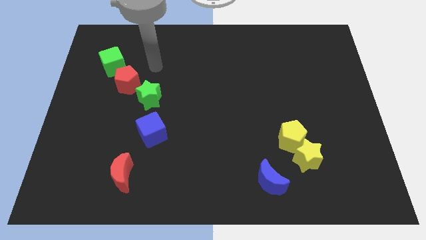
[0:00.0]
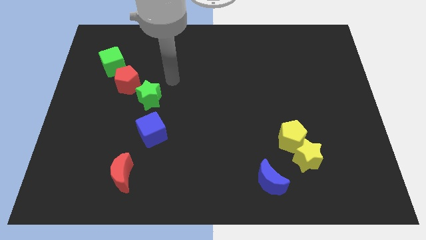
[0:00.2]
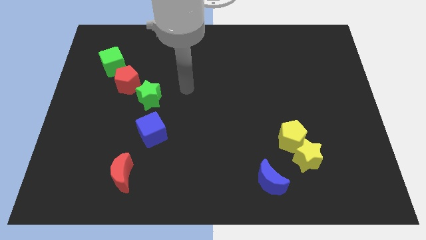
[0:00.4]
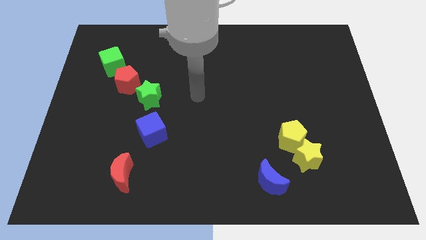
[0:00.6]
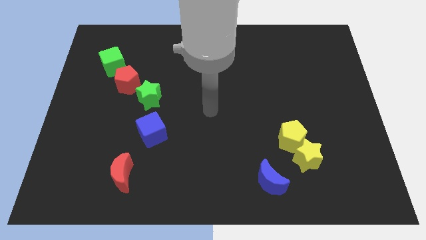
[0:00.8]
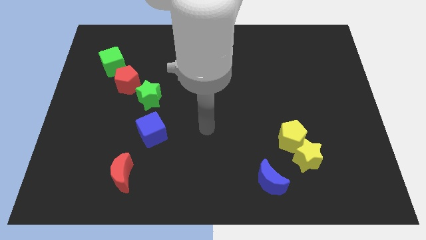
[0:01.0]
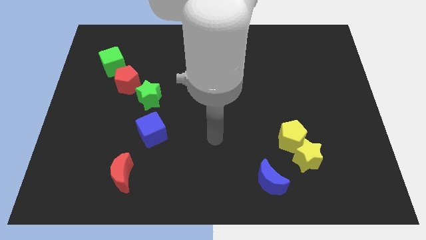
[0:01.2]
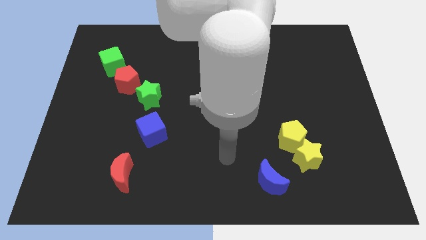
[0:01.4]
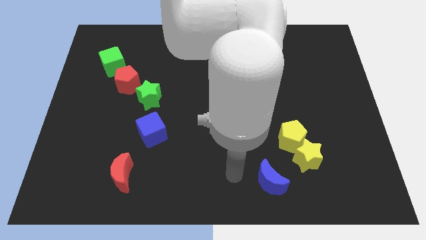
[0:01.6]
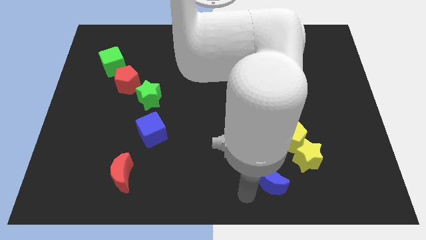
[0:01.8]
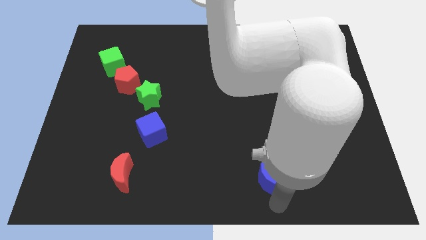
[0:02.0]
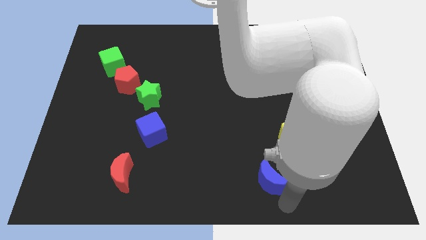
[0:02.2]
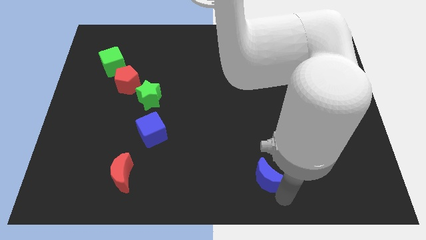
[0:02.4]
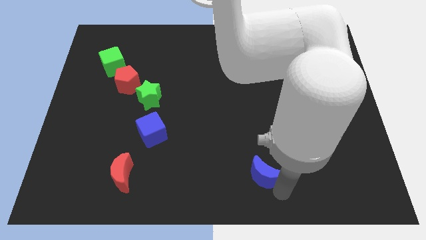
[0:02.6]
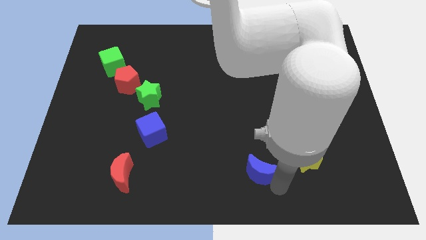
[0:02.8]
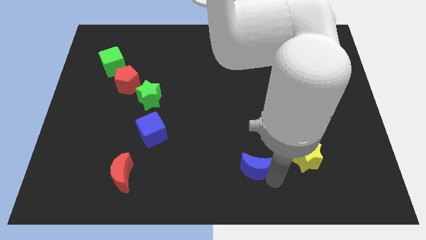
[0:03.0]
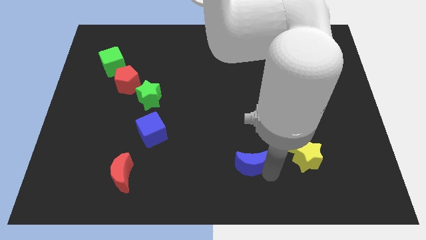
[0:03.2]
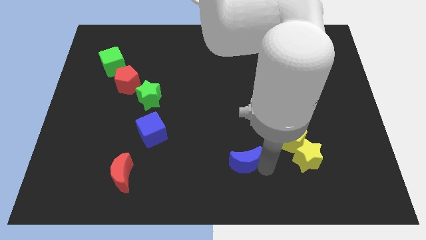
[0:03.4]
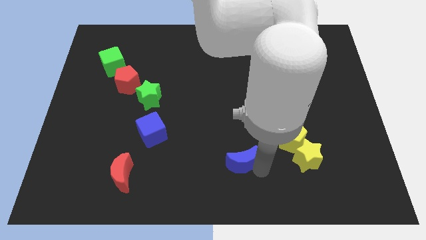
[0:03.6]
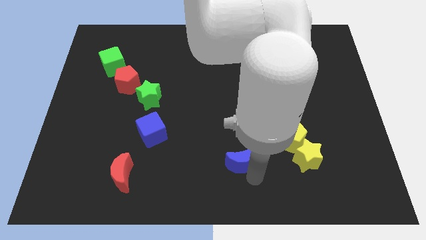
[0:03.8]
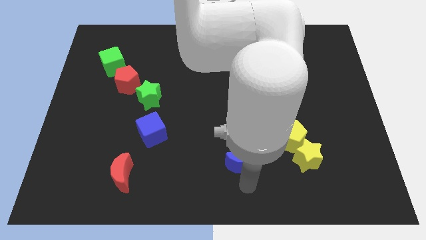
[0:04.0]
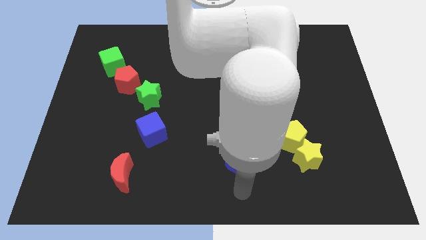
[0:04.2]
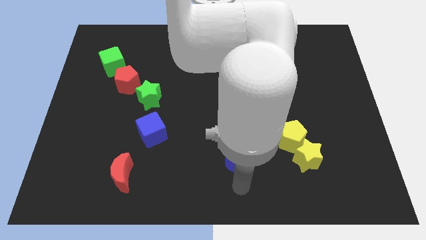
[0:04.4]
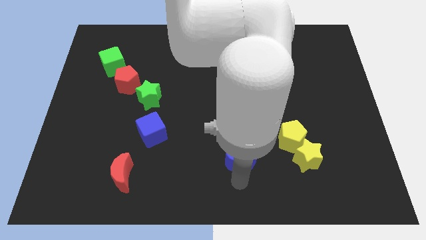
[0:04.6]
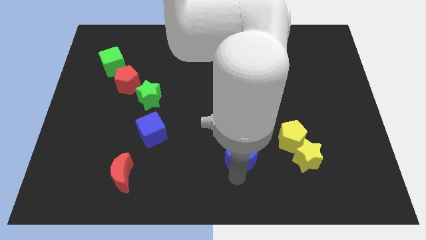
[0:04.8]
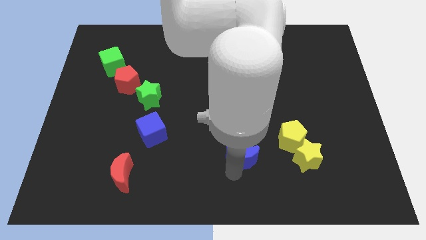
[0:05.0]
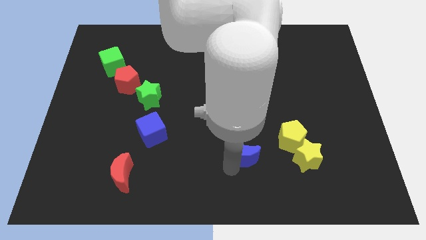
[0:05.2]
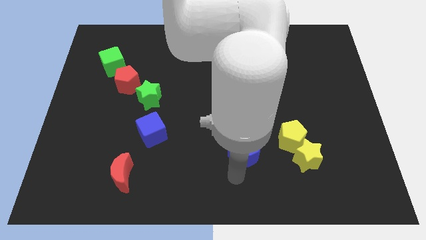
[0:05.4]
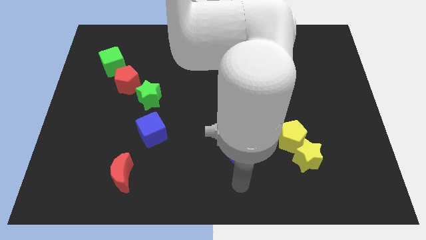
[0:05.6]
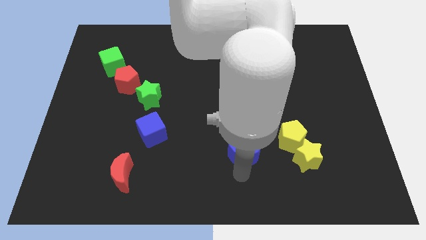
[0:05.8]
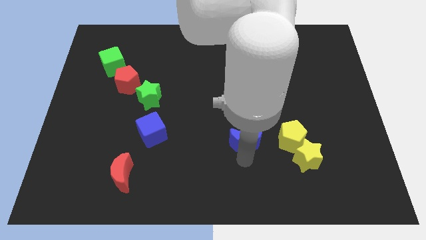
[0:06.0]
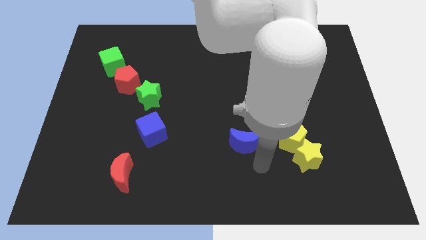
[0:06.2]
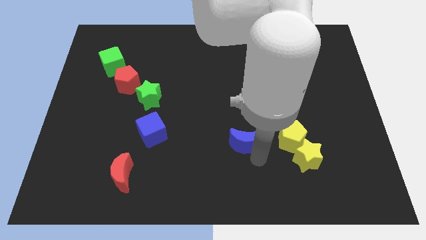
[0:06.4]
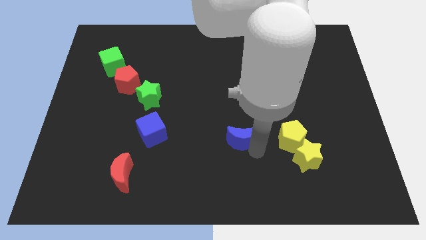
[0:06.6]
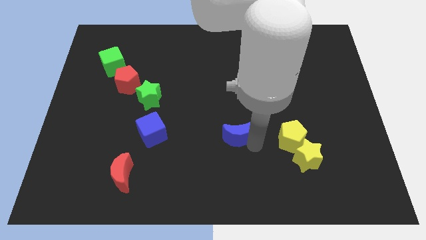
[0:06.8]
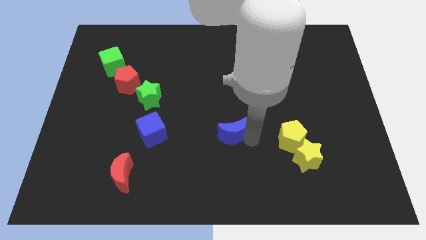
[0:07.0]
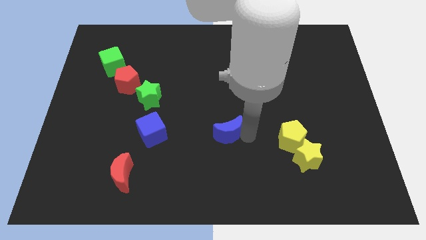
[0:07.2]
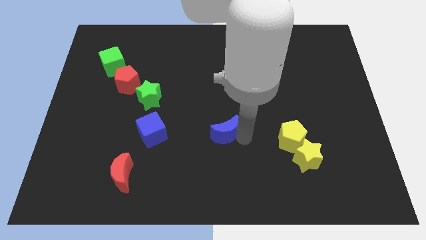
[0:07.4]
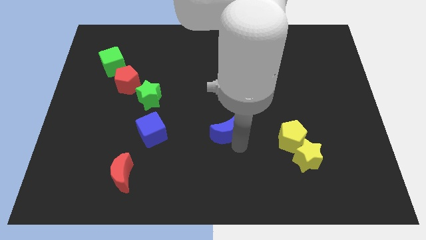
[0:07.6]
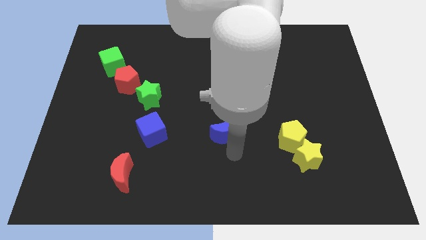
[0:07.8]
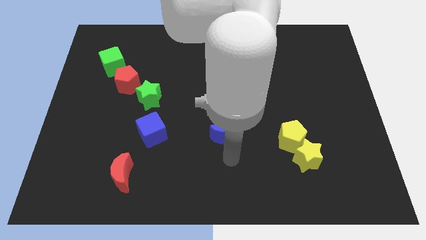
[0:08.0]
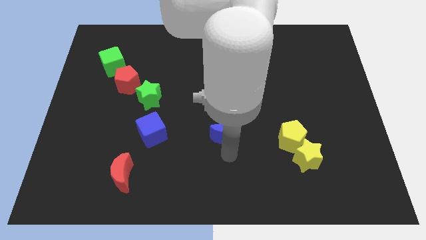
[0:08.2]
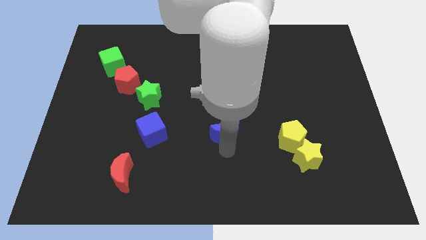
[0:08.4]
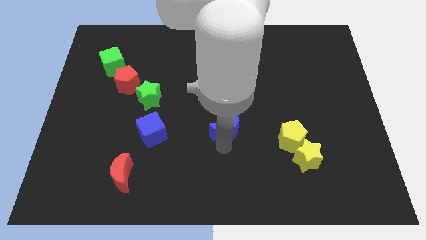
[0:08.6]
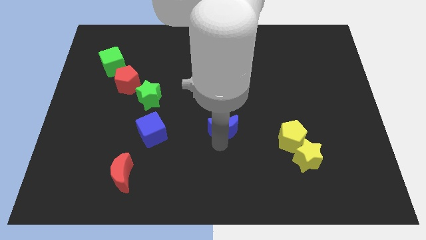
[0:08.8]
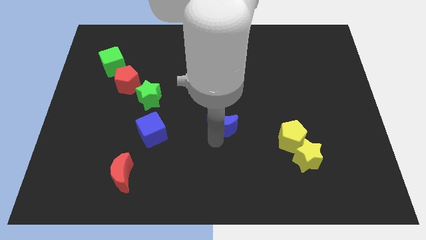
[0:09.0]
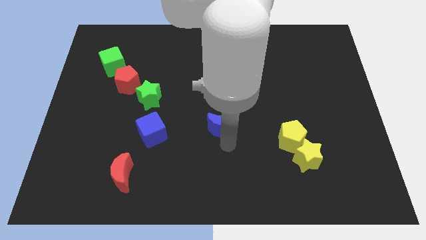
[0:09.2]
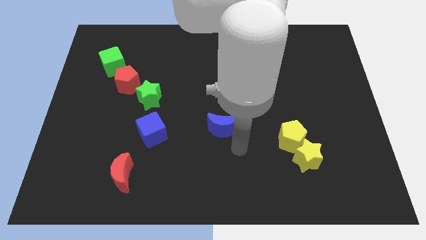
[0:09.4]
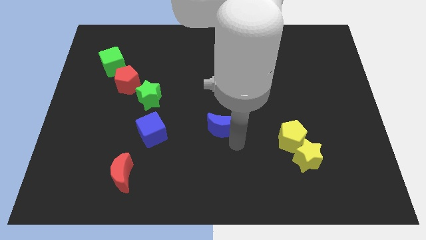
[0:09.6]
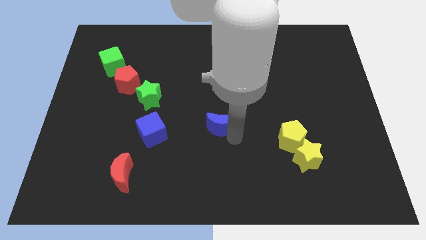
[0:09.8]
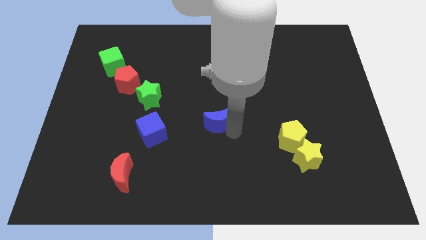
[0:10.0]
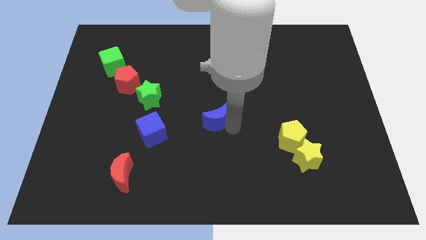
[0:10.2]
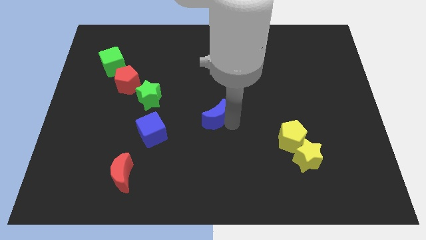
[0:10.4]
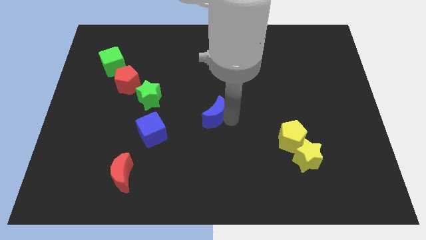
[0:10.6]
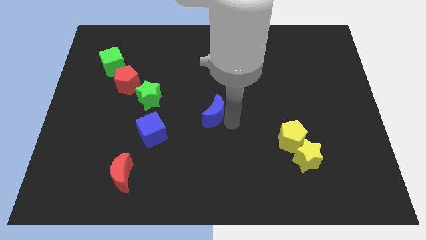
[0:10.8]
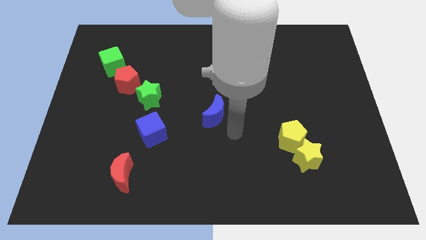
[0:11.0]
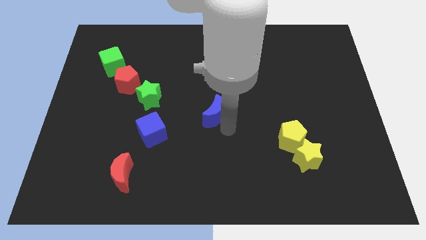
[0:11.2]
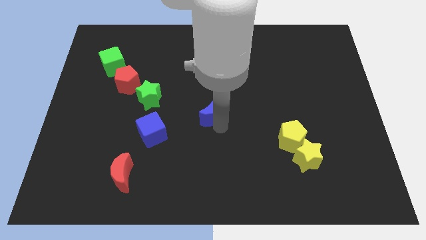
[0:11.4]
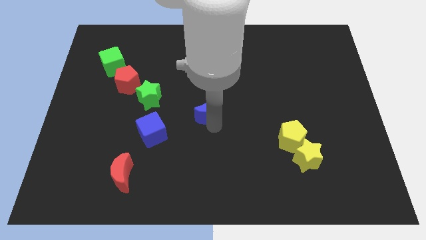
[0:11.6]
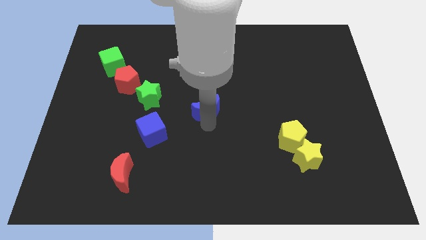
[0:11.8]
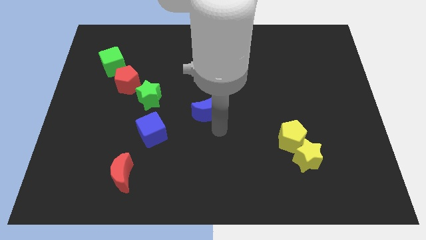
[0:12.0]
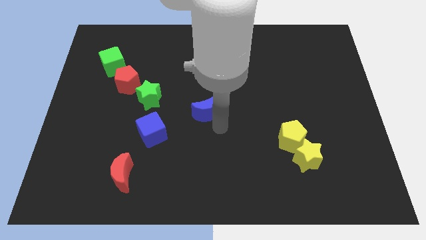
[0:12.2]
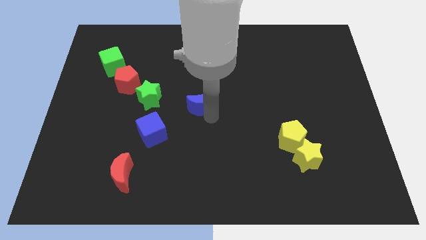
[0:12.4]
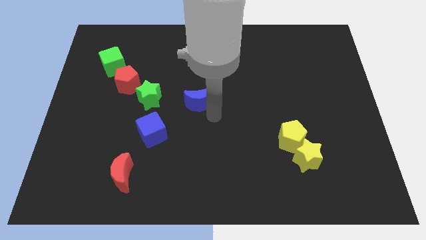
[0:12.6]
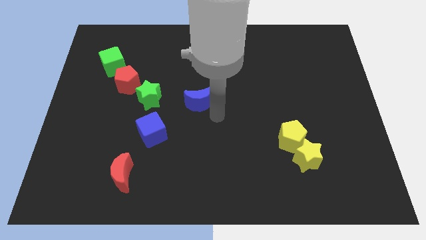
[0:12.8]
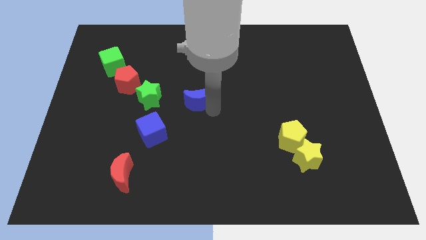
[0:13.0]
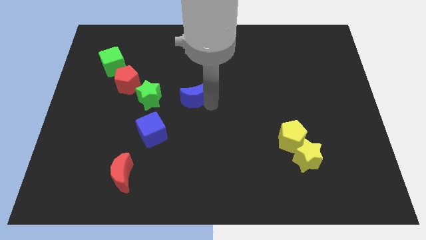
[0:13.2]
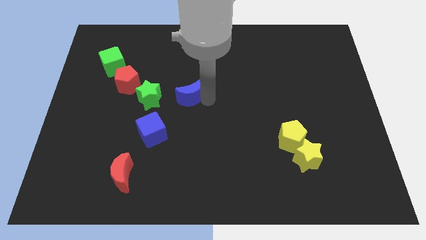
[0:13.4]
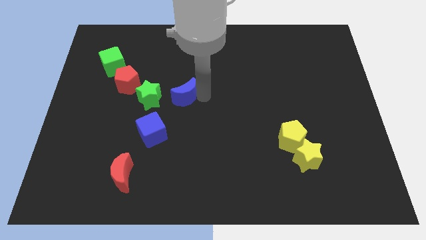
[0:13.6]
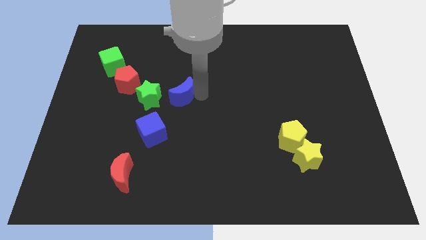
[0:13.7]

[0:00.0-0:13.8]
push the blue moon diagonally up and to the right of the green star
